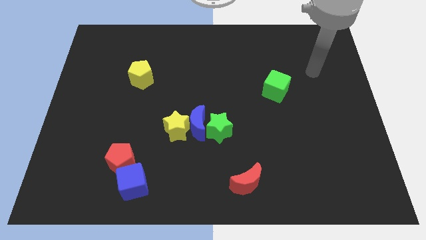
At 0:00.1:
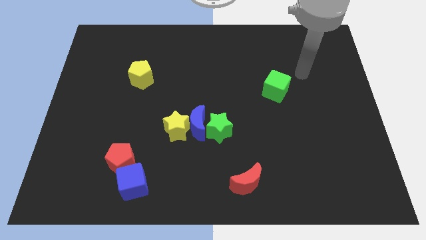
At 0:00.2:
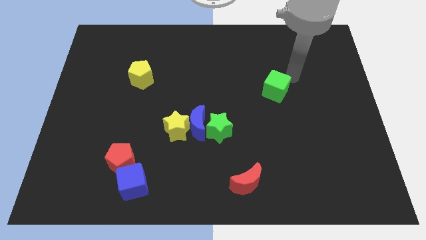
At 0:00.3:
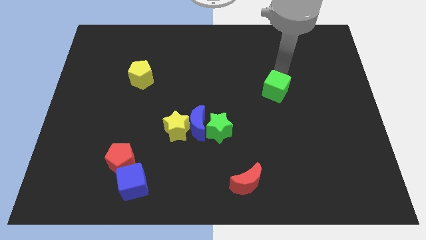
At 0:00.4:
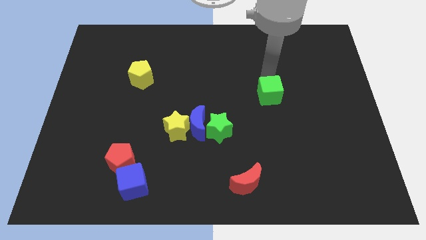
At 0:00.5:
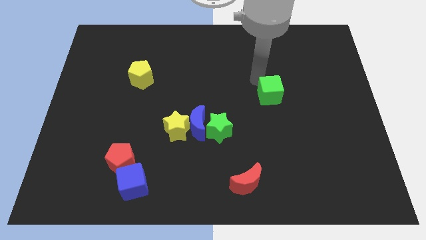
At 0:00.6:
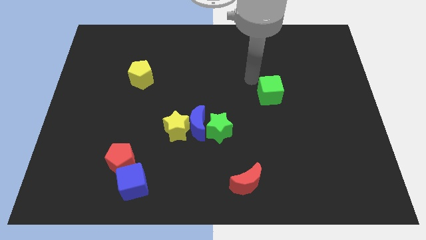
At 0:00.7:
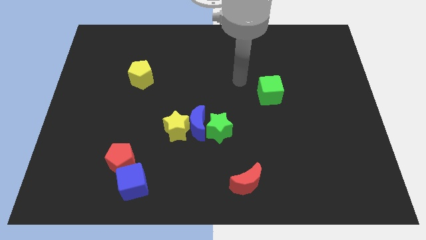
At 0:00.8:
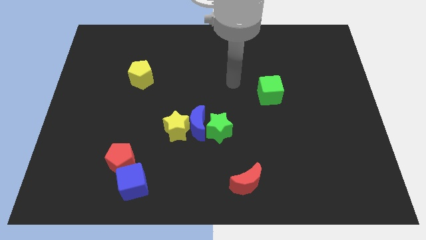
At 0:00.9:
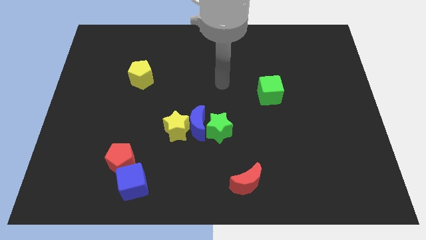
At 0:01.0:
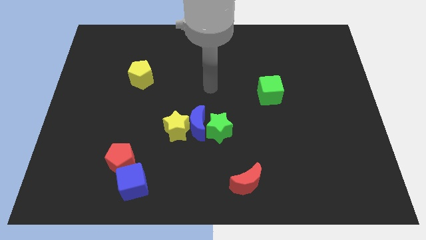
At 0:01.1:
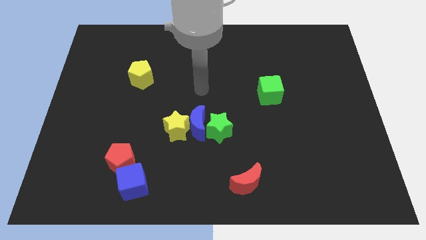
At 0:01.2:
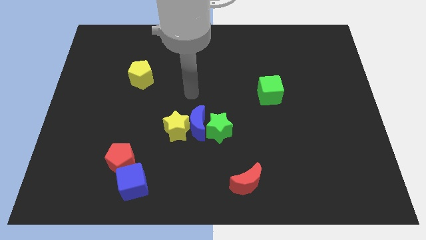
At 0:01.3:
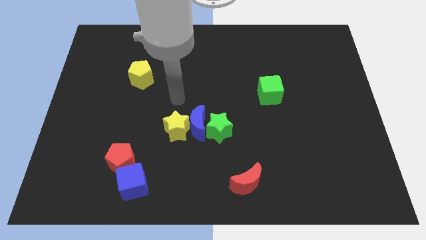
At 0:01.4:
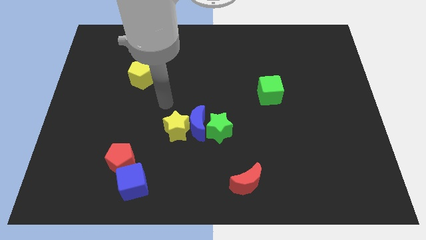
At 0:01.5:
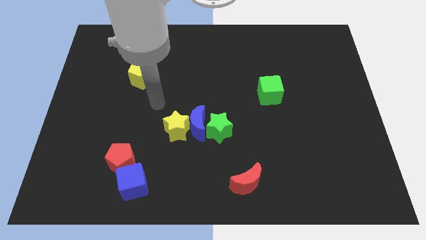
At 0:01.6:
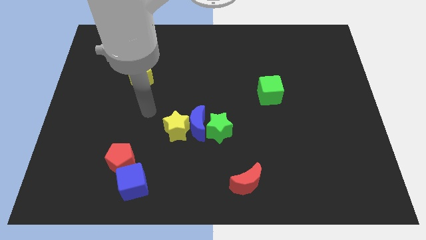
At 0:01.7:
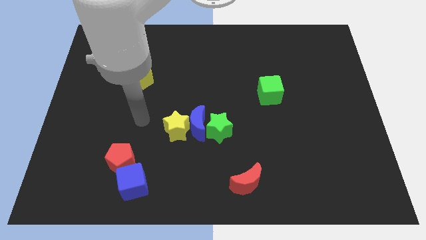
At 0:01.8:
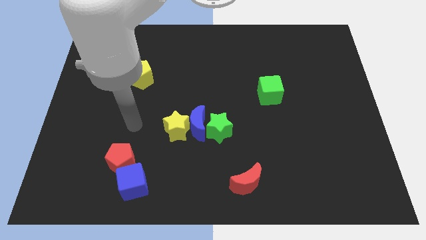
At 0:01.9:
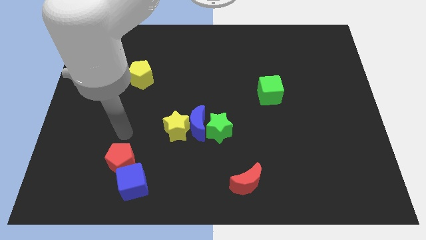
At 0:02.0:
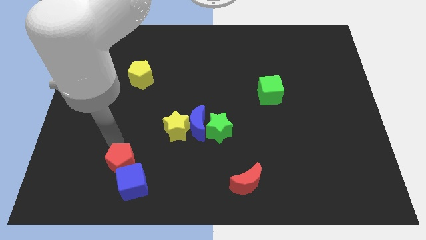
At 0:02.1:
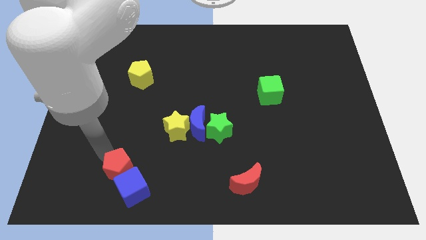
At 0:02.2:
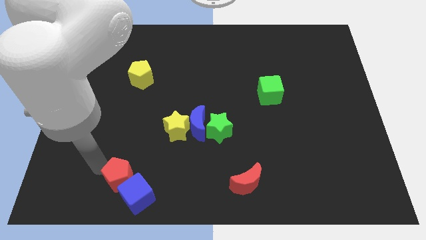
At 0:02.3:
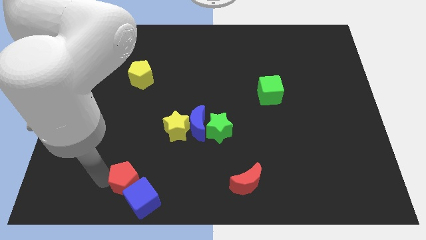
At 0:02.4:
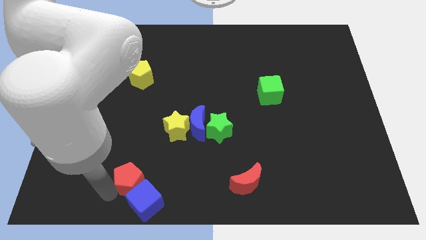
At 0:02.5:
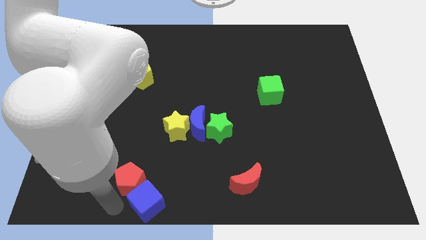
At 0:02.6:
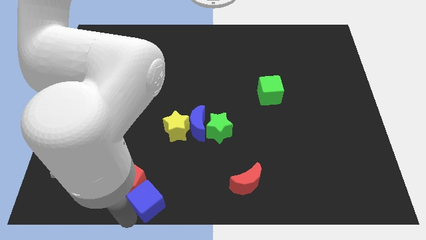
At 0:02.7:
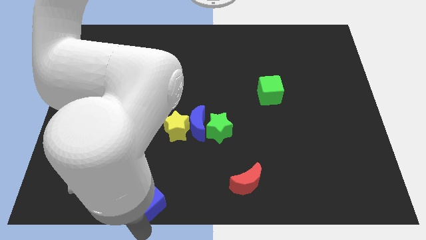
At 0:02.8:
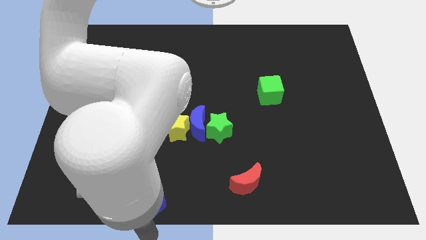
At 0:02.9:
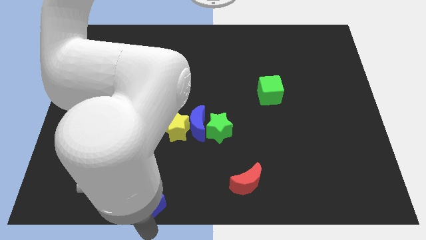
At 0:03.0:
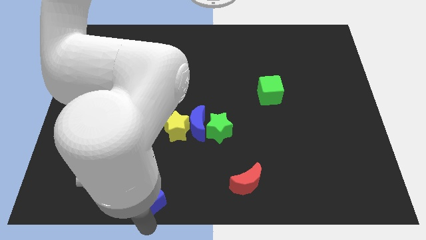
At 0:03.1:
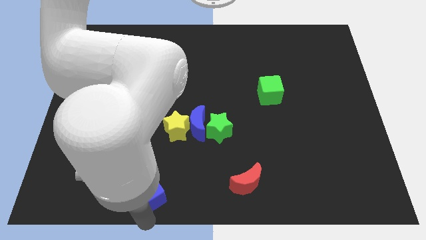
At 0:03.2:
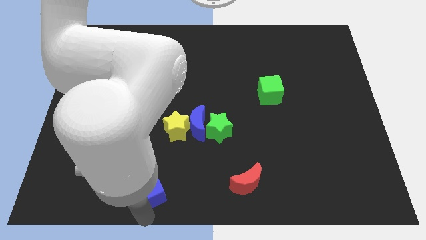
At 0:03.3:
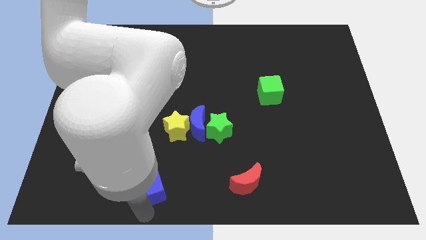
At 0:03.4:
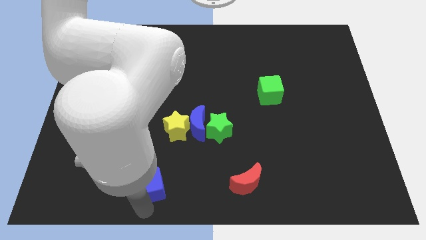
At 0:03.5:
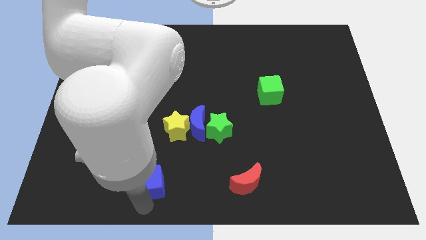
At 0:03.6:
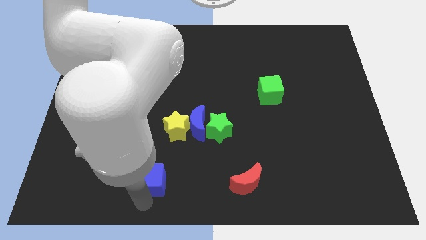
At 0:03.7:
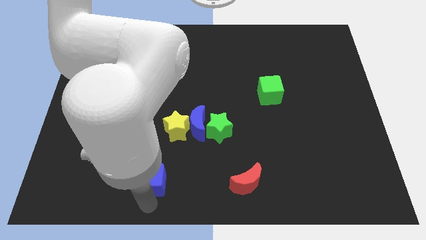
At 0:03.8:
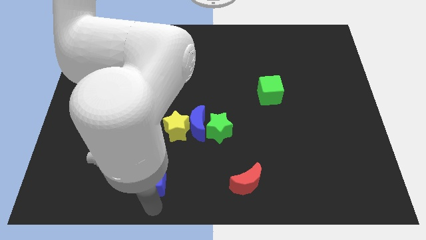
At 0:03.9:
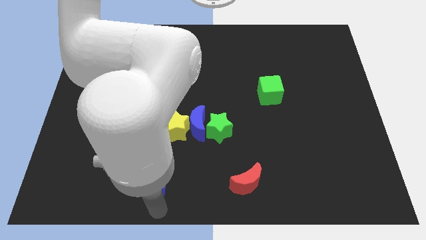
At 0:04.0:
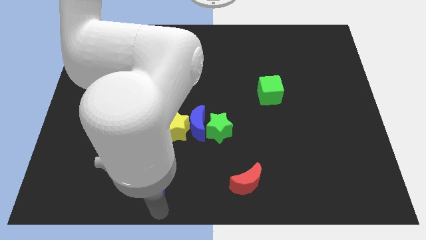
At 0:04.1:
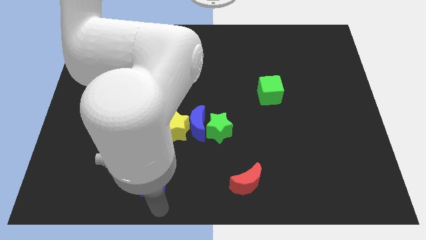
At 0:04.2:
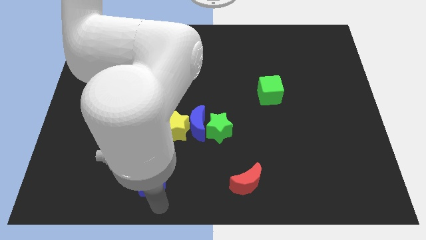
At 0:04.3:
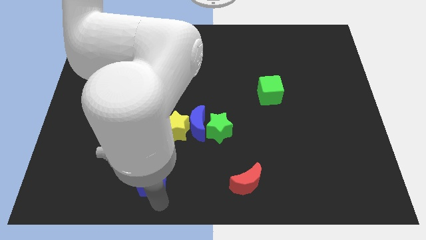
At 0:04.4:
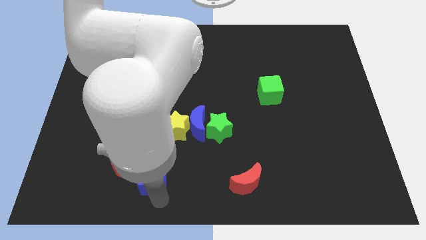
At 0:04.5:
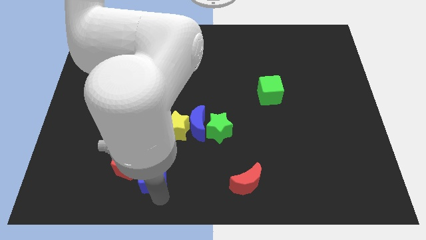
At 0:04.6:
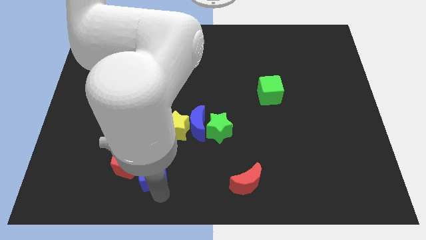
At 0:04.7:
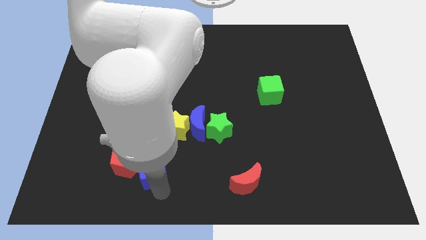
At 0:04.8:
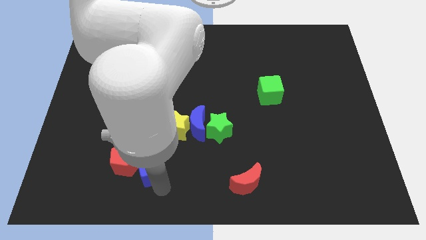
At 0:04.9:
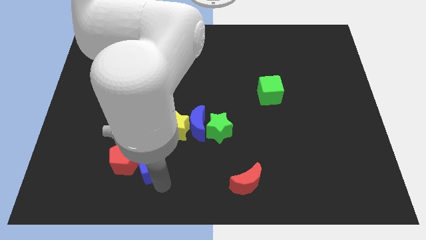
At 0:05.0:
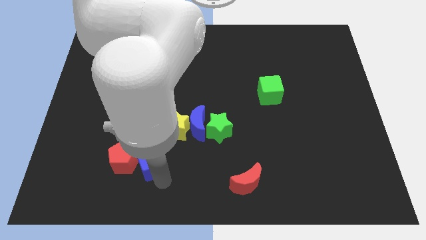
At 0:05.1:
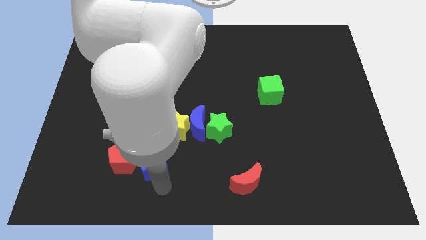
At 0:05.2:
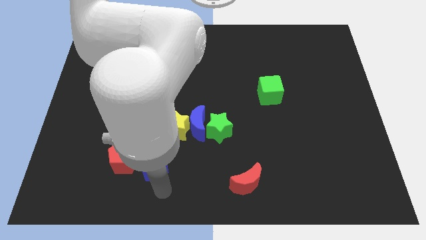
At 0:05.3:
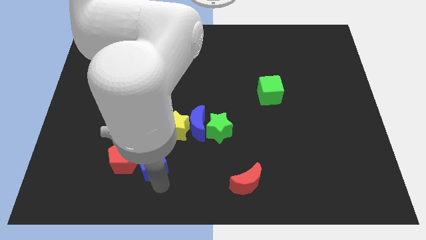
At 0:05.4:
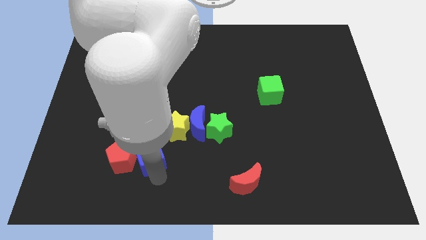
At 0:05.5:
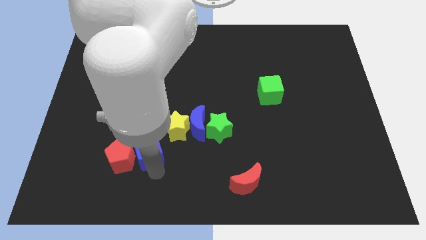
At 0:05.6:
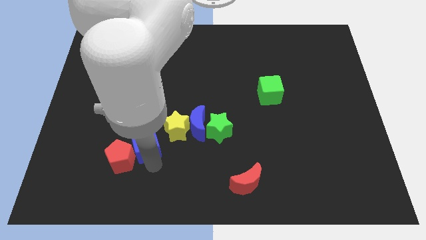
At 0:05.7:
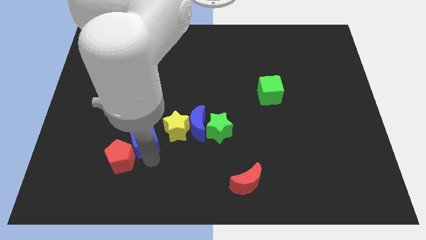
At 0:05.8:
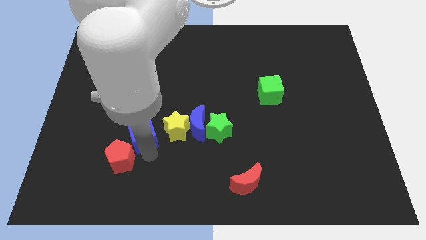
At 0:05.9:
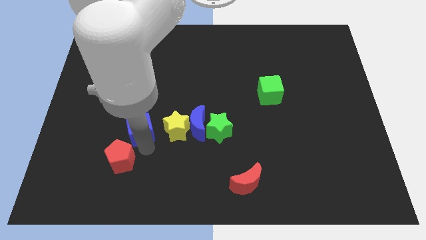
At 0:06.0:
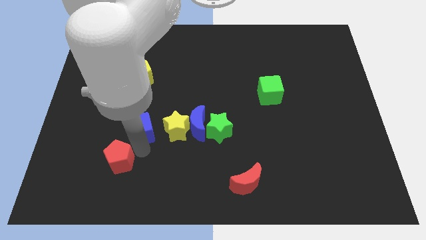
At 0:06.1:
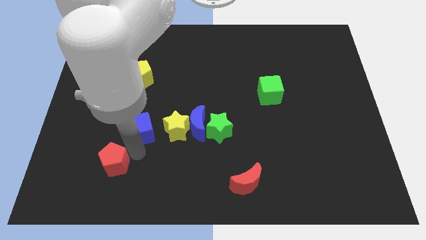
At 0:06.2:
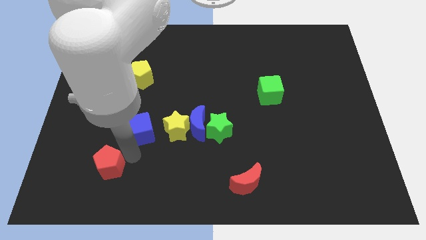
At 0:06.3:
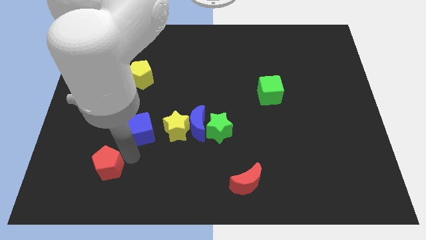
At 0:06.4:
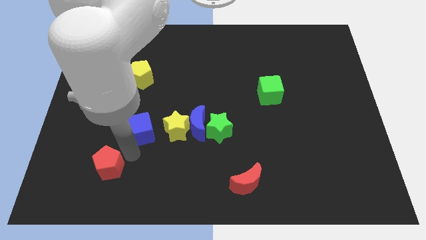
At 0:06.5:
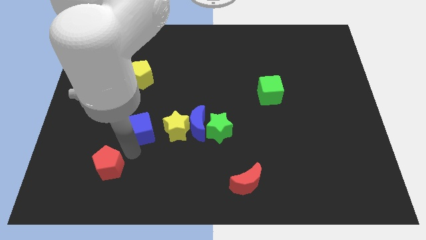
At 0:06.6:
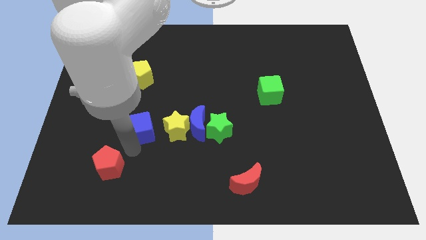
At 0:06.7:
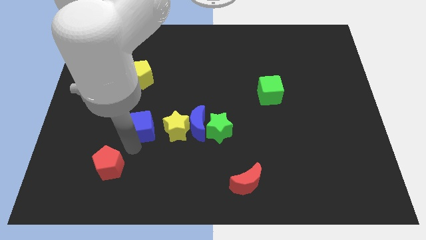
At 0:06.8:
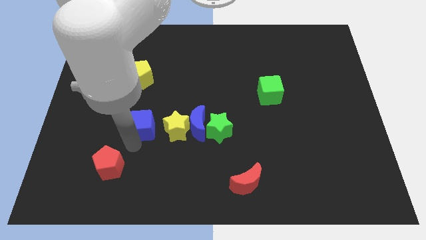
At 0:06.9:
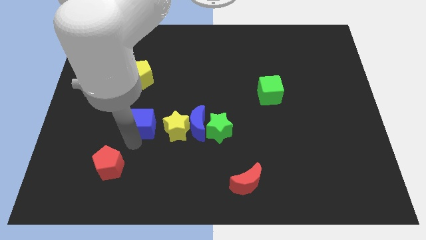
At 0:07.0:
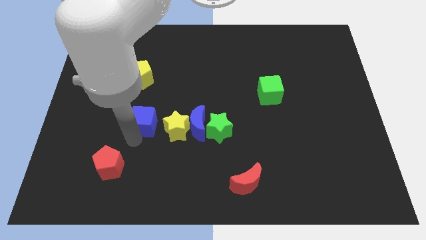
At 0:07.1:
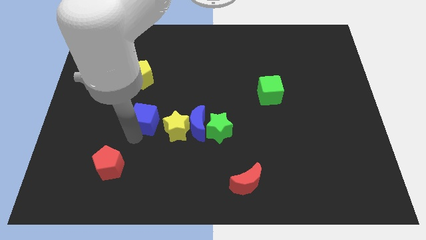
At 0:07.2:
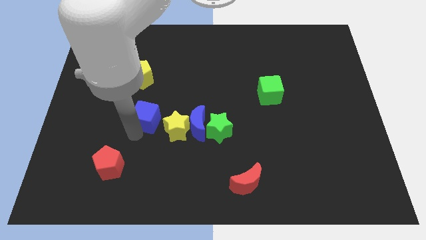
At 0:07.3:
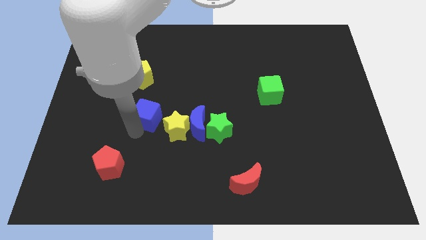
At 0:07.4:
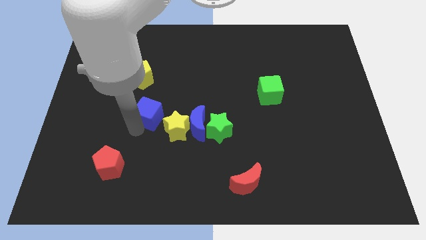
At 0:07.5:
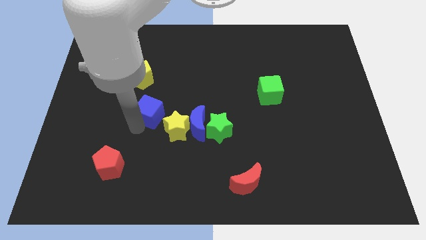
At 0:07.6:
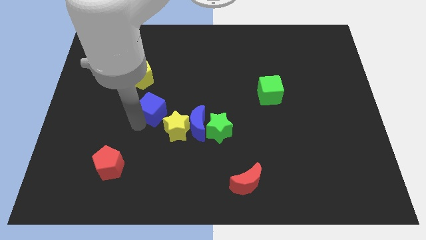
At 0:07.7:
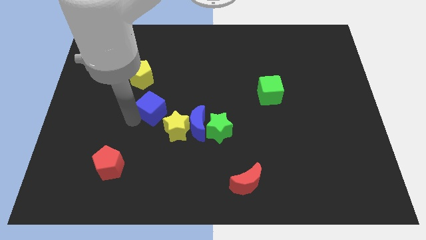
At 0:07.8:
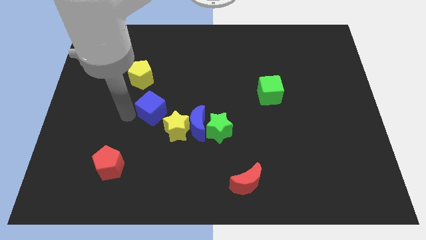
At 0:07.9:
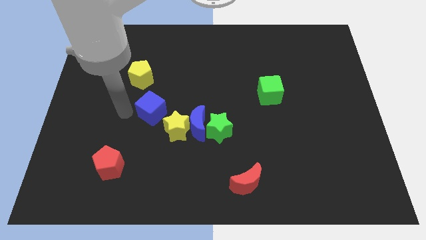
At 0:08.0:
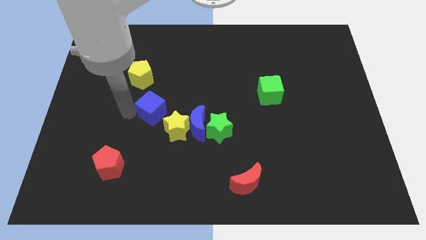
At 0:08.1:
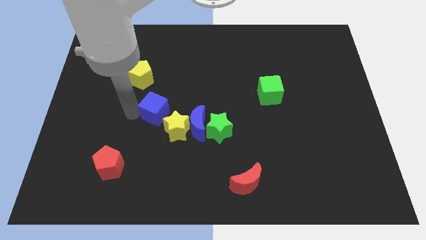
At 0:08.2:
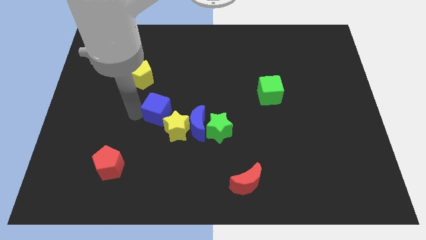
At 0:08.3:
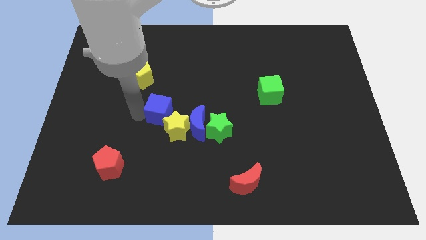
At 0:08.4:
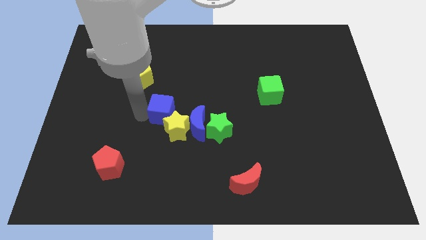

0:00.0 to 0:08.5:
move the blue cube to the center
